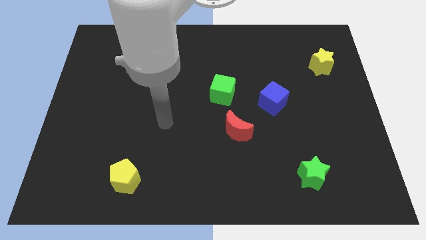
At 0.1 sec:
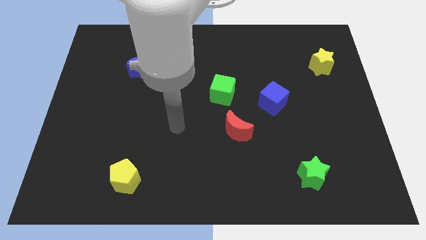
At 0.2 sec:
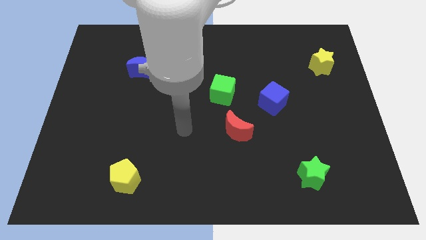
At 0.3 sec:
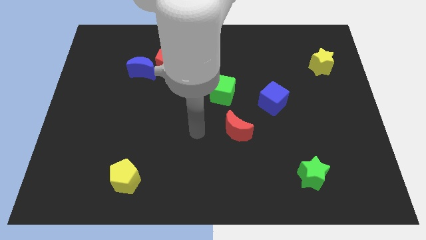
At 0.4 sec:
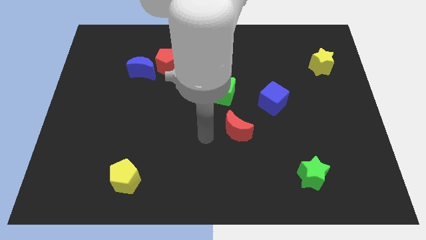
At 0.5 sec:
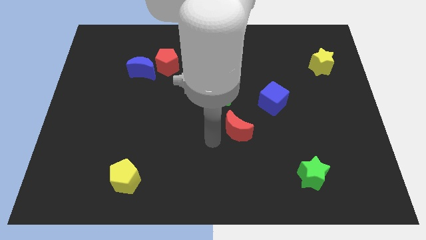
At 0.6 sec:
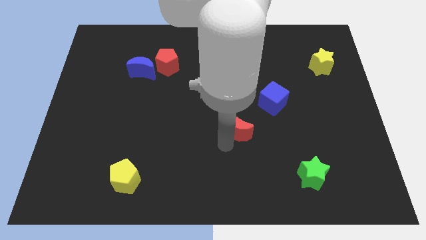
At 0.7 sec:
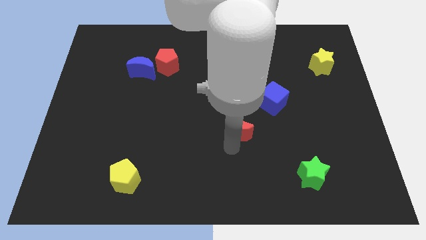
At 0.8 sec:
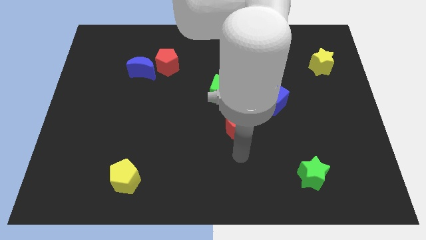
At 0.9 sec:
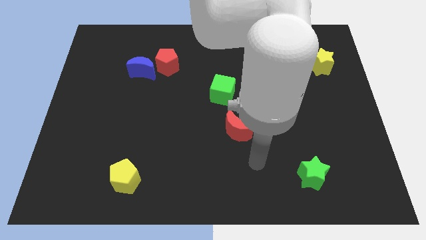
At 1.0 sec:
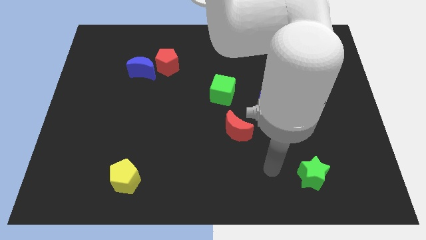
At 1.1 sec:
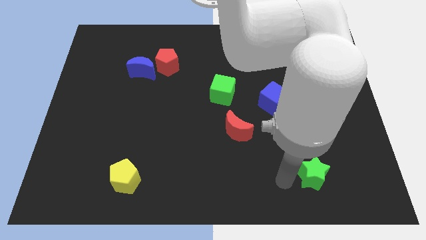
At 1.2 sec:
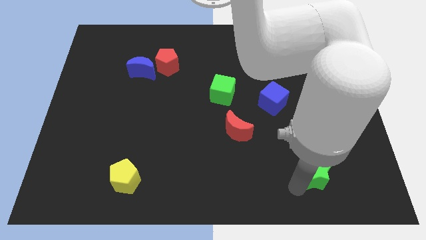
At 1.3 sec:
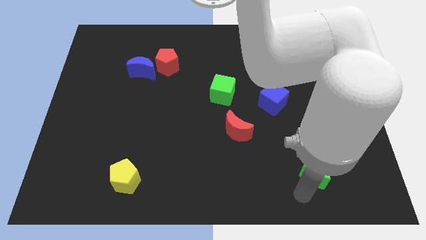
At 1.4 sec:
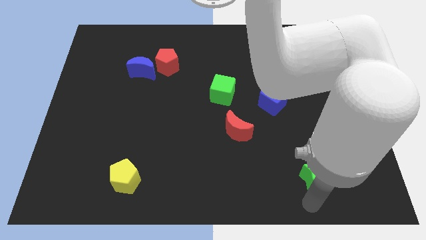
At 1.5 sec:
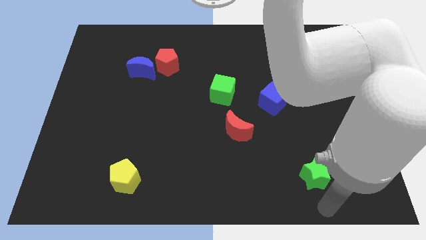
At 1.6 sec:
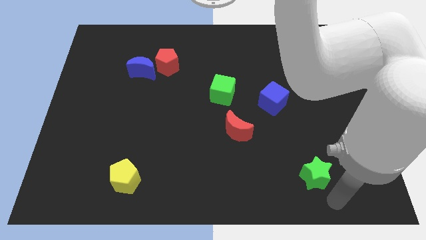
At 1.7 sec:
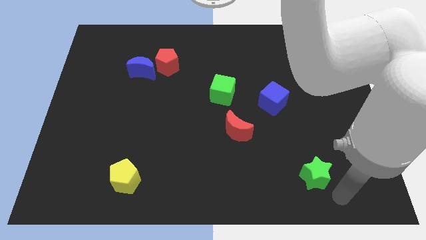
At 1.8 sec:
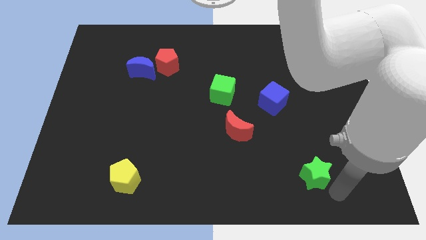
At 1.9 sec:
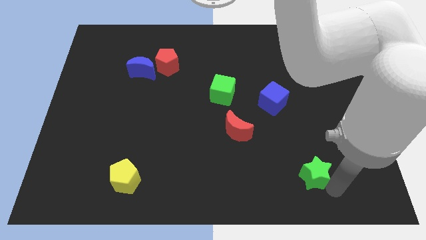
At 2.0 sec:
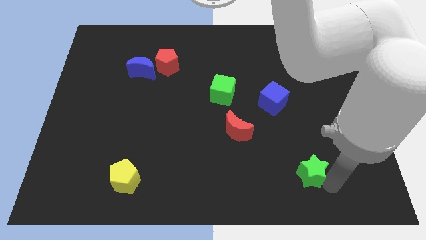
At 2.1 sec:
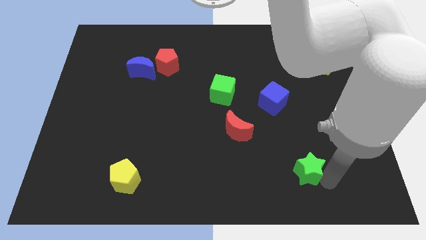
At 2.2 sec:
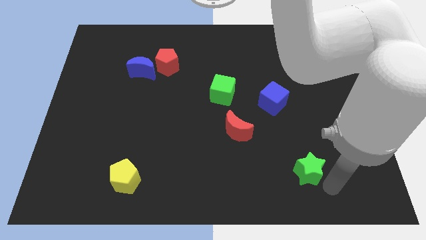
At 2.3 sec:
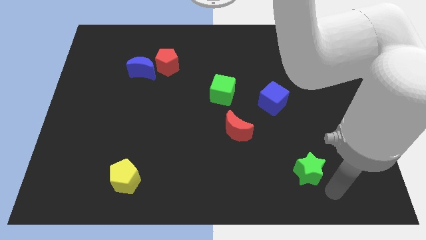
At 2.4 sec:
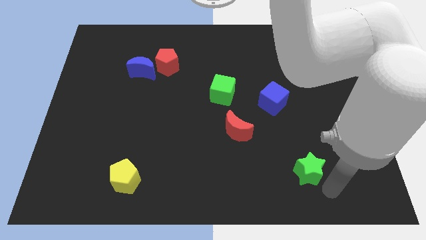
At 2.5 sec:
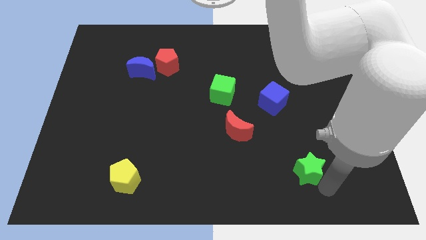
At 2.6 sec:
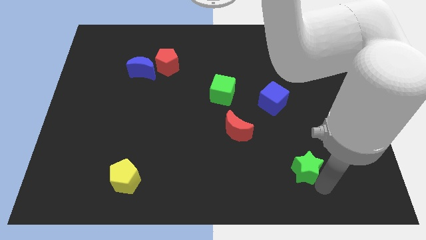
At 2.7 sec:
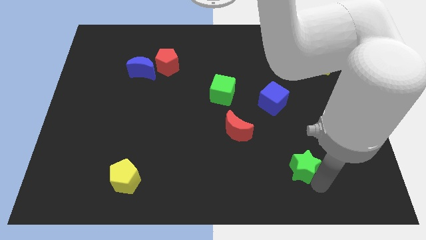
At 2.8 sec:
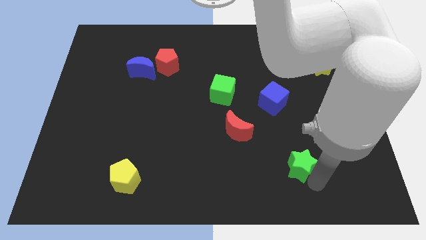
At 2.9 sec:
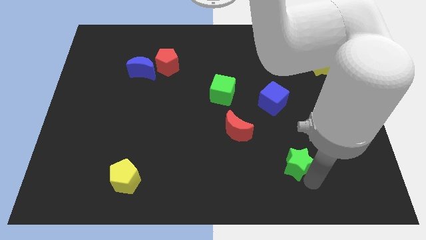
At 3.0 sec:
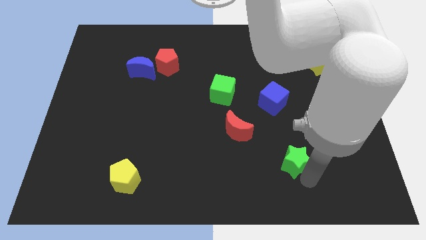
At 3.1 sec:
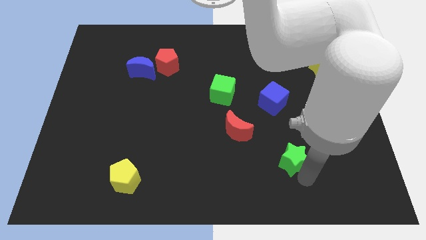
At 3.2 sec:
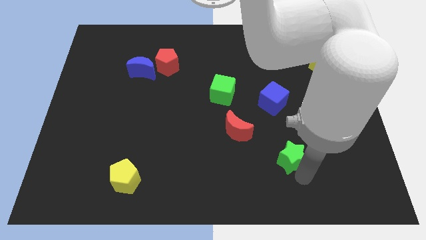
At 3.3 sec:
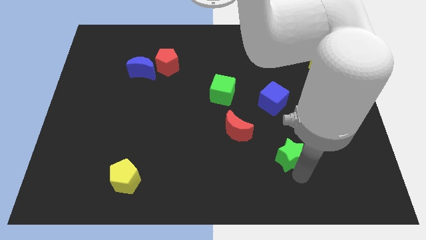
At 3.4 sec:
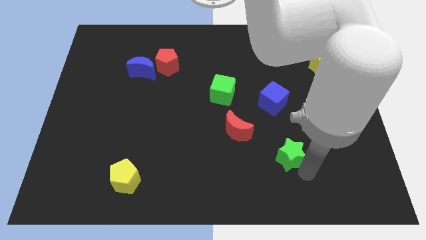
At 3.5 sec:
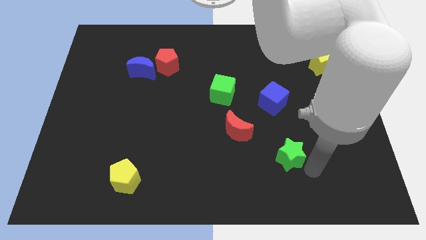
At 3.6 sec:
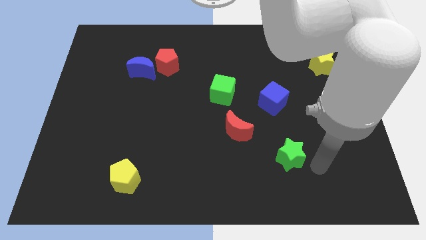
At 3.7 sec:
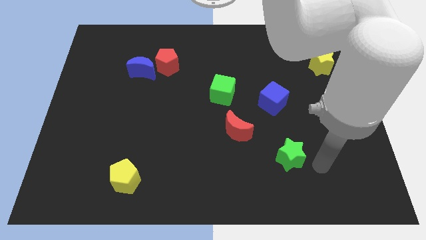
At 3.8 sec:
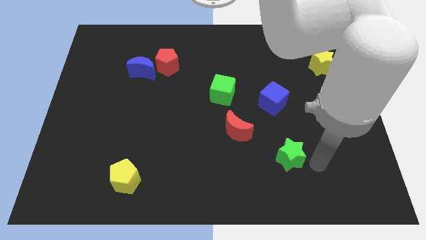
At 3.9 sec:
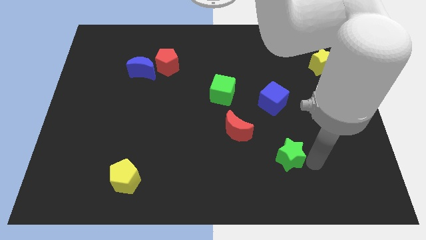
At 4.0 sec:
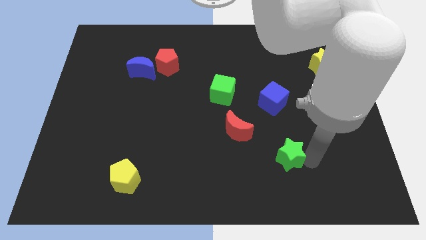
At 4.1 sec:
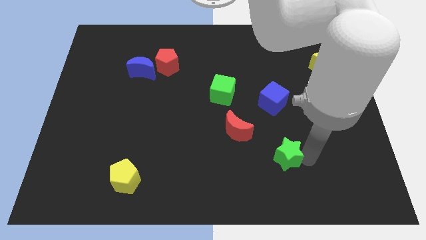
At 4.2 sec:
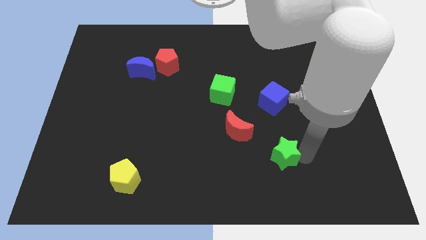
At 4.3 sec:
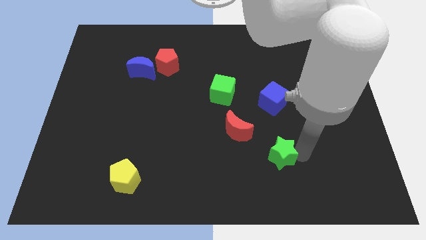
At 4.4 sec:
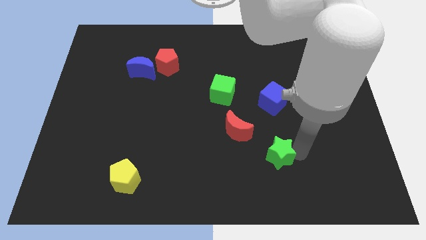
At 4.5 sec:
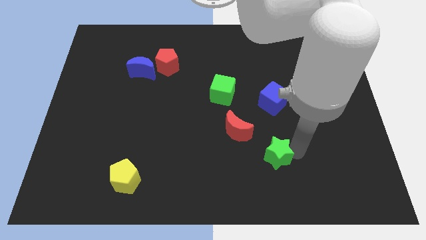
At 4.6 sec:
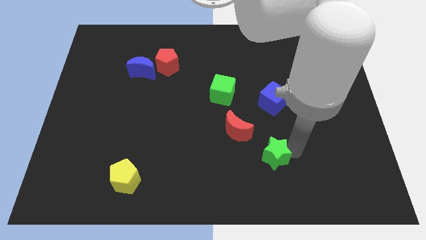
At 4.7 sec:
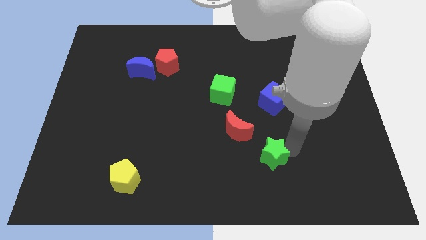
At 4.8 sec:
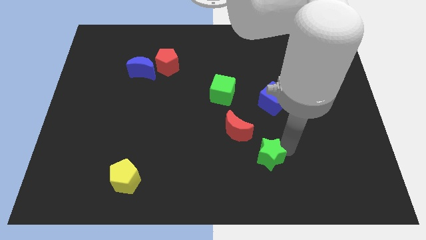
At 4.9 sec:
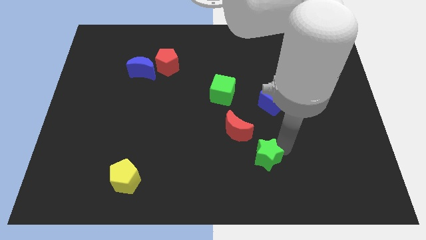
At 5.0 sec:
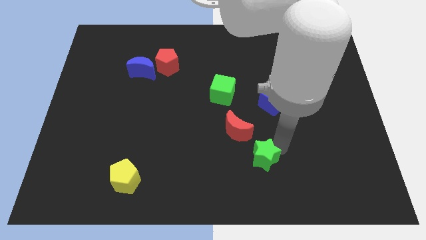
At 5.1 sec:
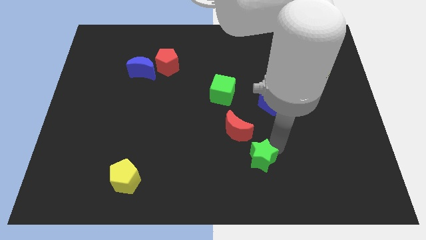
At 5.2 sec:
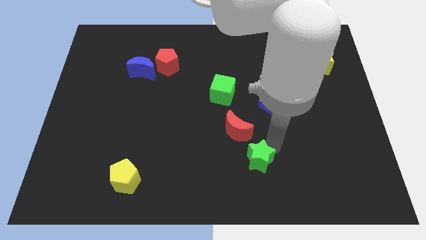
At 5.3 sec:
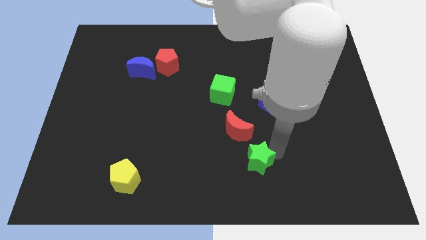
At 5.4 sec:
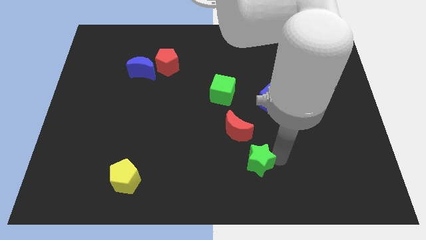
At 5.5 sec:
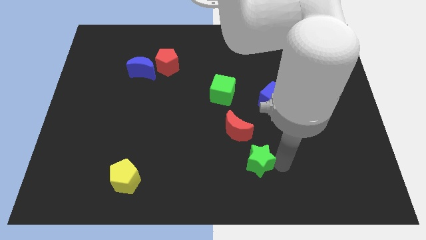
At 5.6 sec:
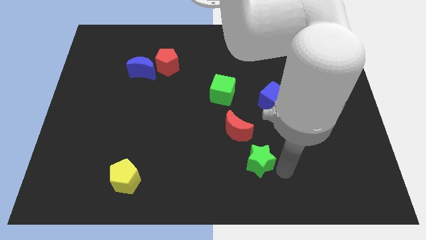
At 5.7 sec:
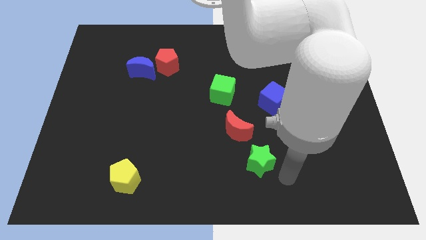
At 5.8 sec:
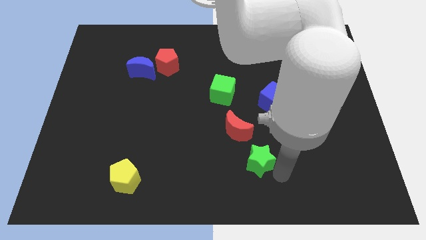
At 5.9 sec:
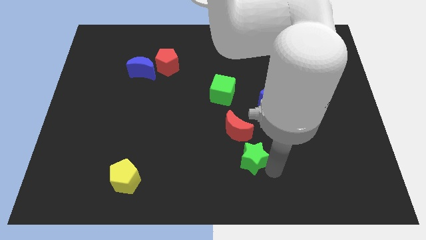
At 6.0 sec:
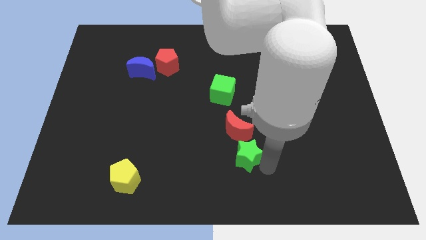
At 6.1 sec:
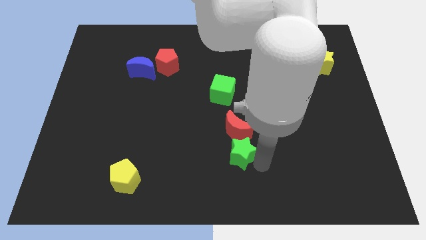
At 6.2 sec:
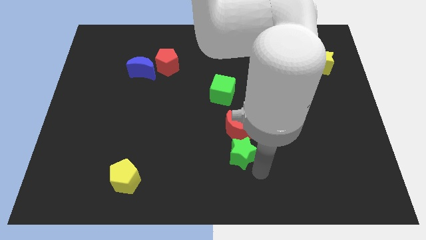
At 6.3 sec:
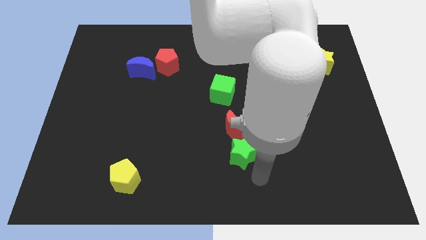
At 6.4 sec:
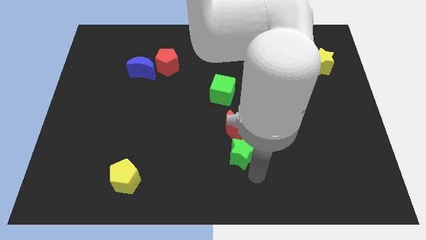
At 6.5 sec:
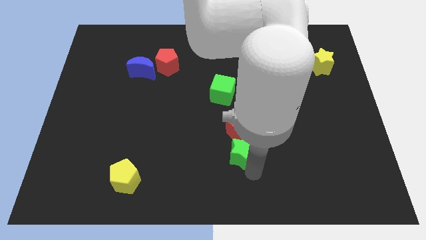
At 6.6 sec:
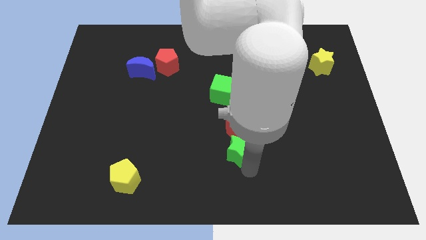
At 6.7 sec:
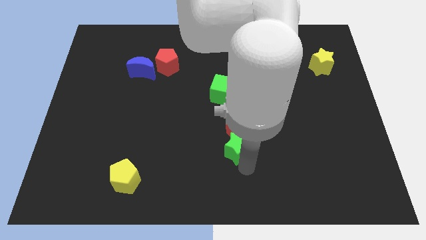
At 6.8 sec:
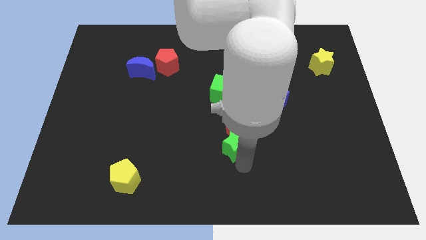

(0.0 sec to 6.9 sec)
push the green star to the bottom side of the green cube

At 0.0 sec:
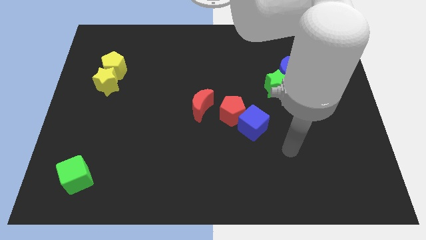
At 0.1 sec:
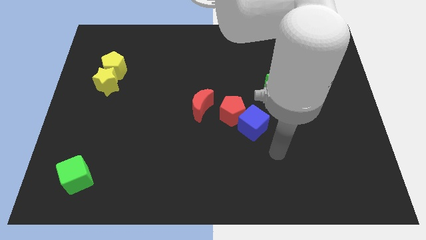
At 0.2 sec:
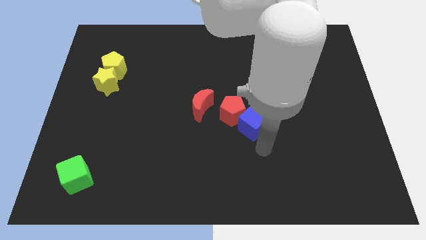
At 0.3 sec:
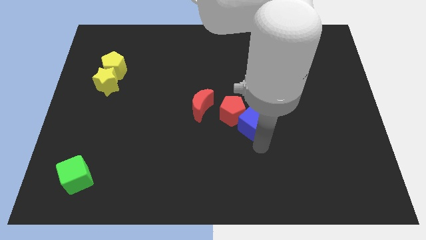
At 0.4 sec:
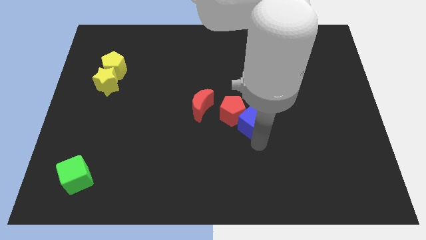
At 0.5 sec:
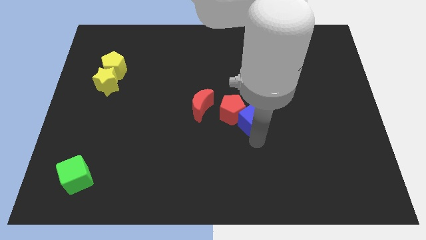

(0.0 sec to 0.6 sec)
move the blue cube right of the red moon
